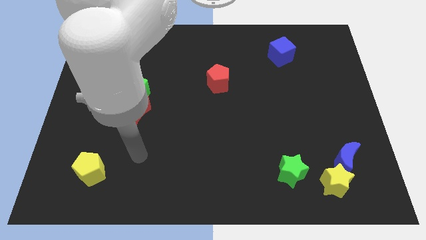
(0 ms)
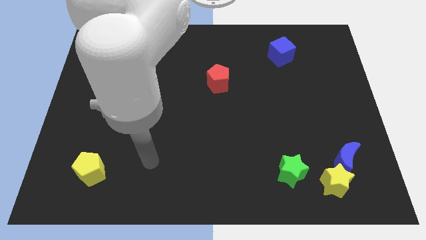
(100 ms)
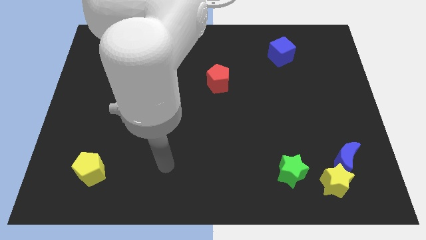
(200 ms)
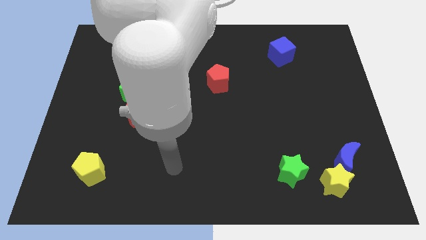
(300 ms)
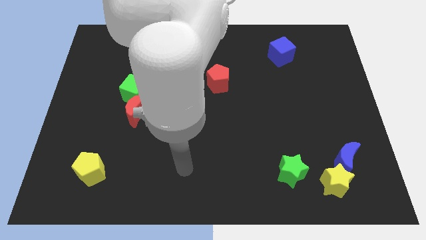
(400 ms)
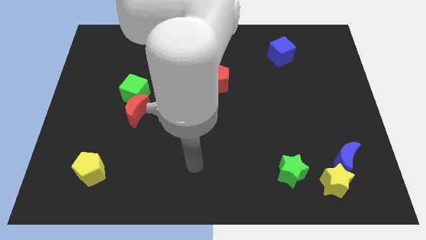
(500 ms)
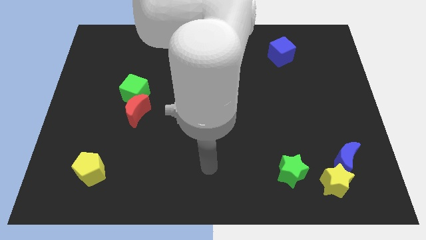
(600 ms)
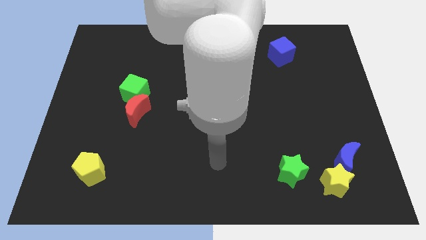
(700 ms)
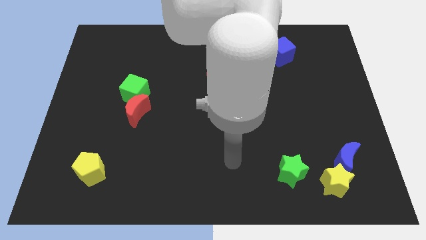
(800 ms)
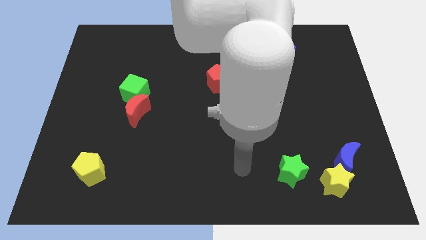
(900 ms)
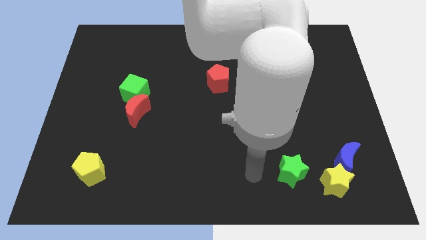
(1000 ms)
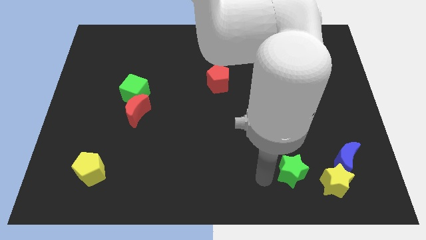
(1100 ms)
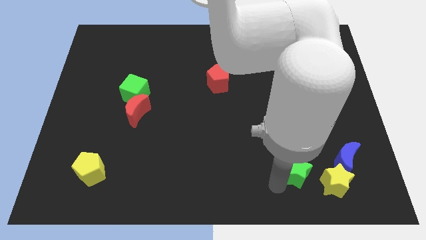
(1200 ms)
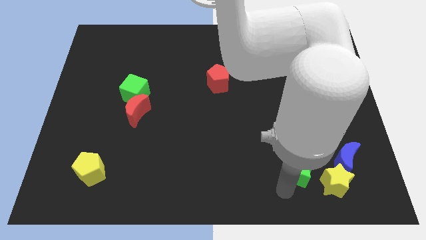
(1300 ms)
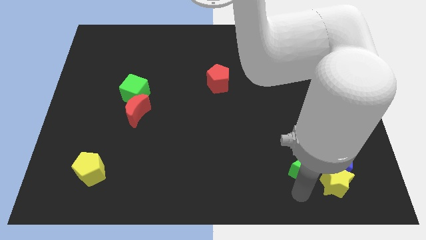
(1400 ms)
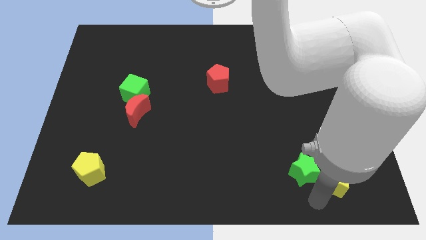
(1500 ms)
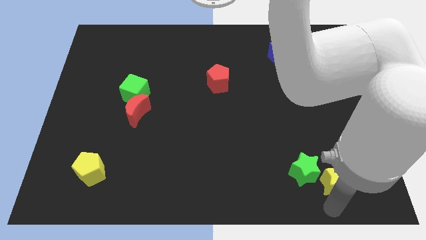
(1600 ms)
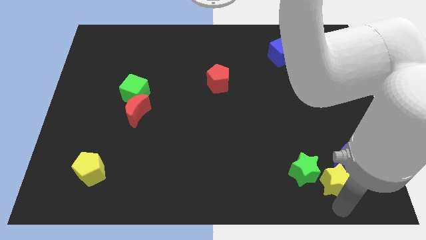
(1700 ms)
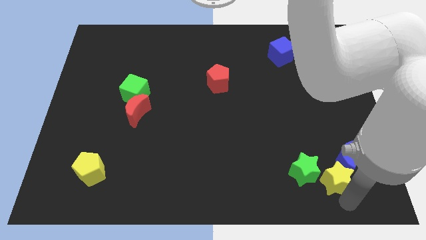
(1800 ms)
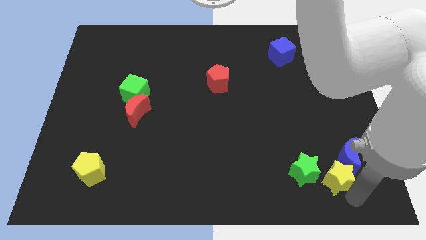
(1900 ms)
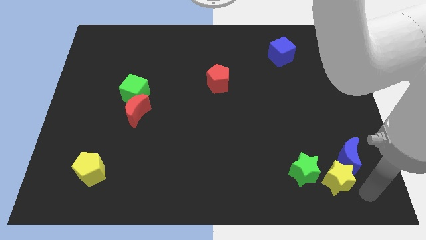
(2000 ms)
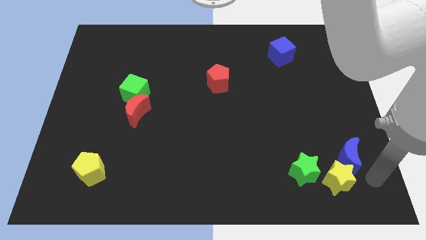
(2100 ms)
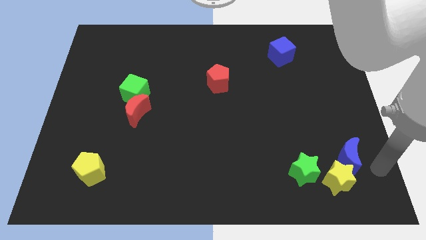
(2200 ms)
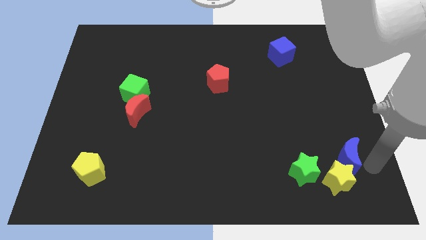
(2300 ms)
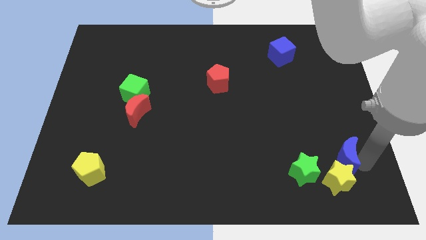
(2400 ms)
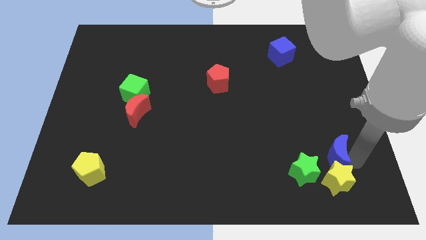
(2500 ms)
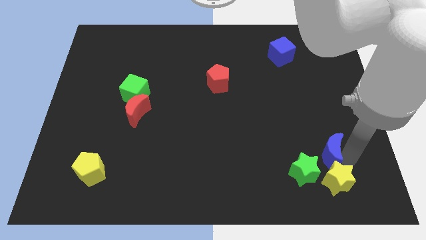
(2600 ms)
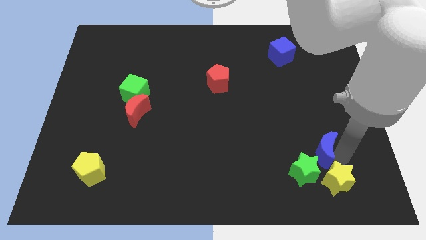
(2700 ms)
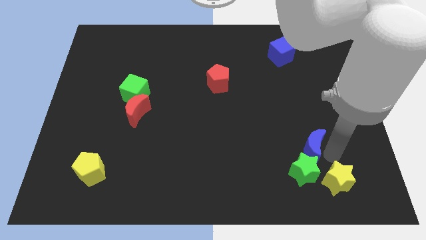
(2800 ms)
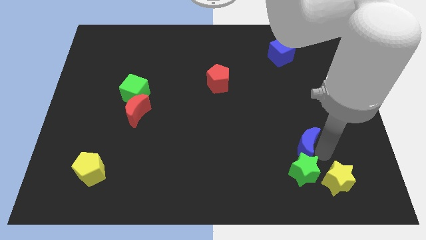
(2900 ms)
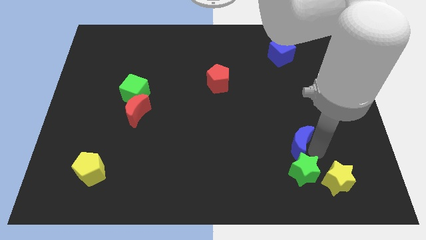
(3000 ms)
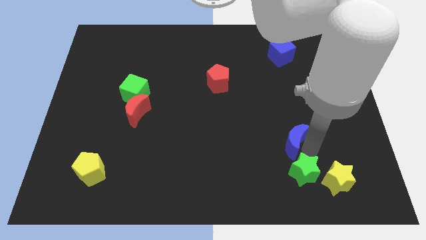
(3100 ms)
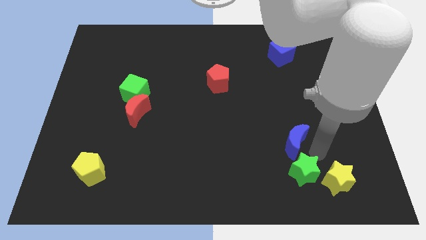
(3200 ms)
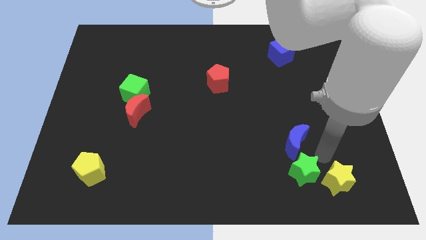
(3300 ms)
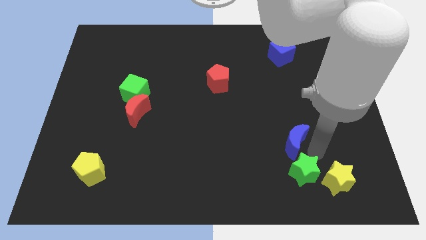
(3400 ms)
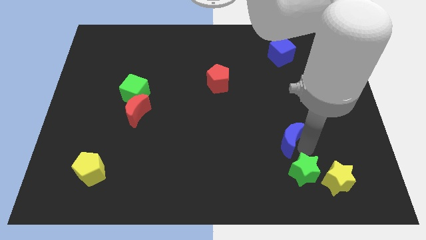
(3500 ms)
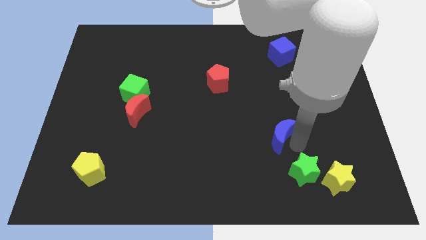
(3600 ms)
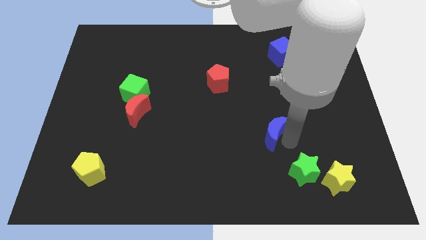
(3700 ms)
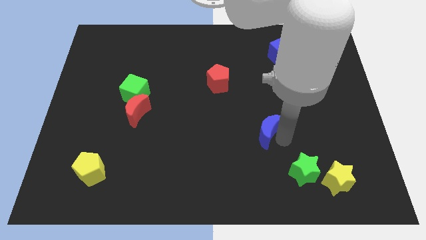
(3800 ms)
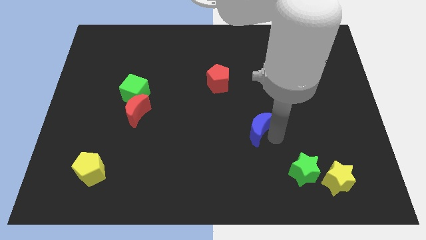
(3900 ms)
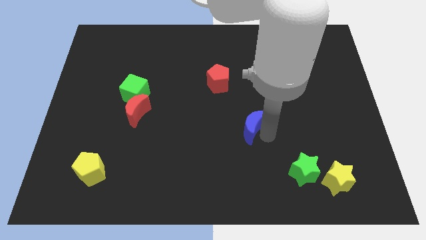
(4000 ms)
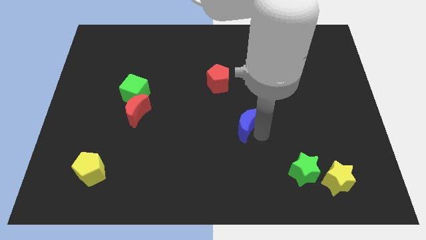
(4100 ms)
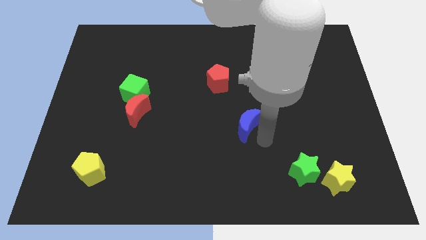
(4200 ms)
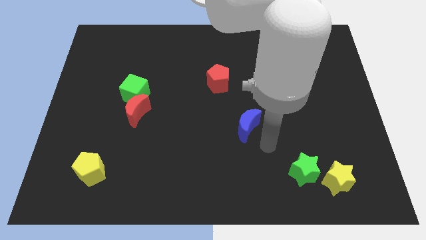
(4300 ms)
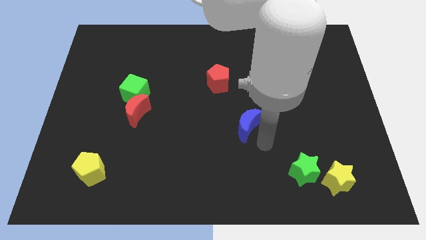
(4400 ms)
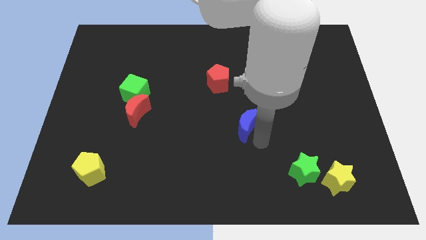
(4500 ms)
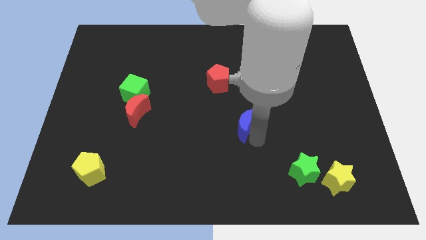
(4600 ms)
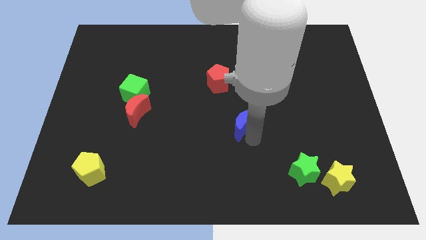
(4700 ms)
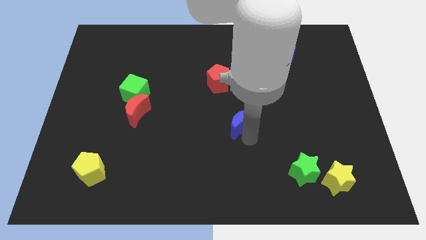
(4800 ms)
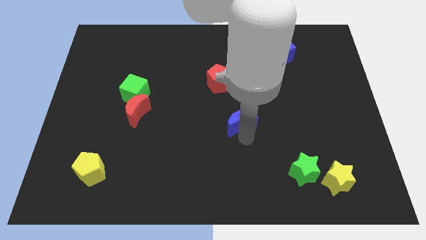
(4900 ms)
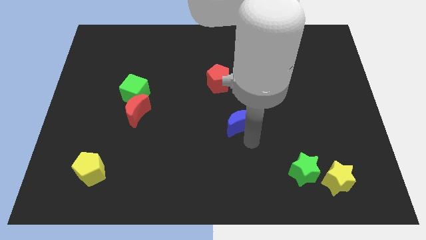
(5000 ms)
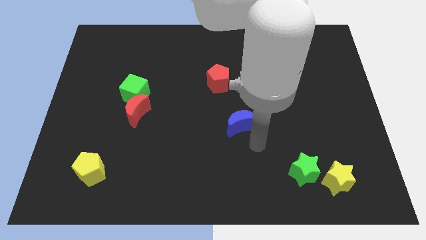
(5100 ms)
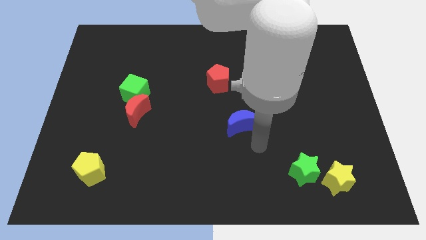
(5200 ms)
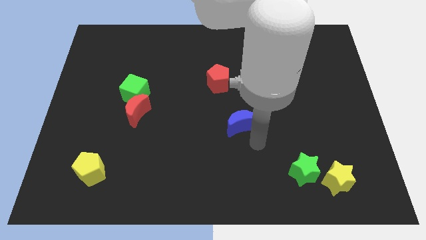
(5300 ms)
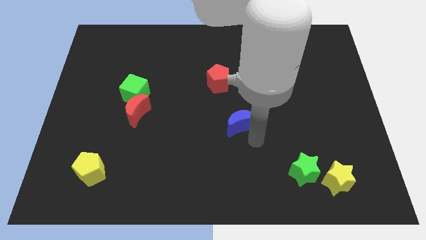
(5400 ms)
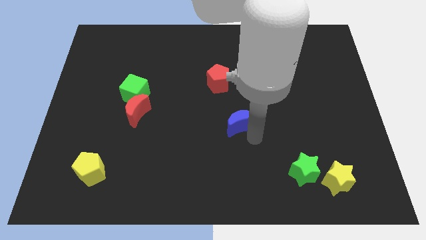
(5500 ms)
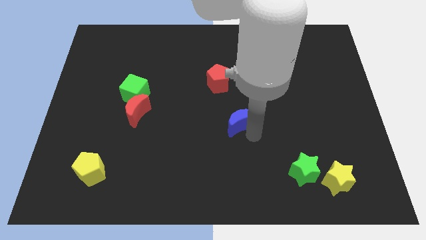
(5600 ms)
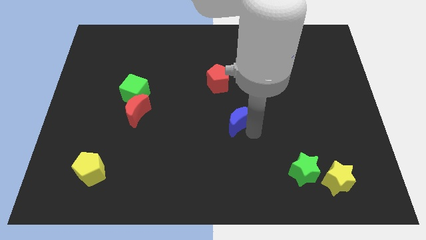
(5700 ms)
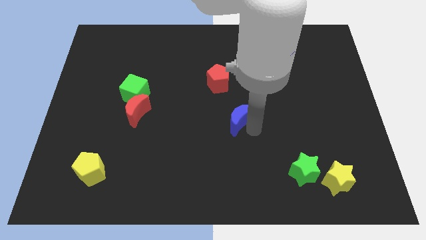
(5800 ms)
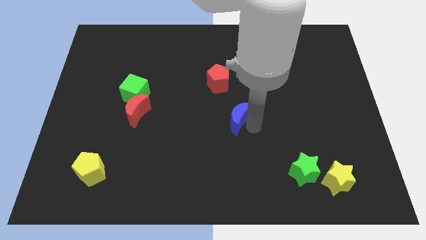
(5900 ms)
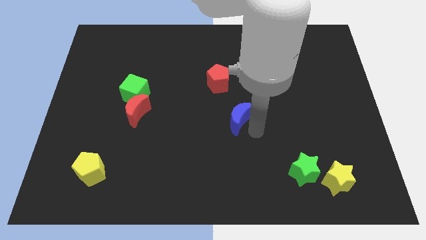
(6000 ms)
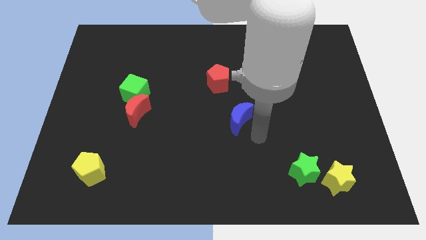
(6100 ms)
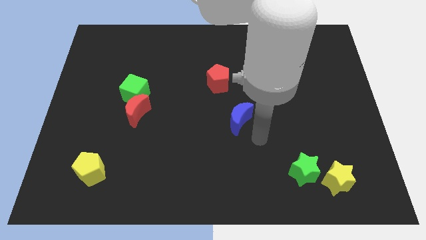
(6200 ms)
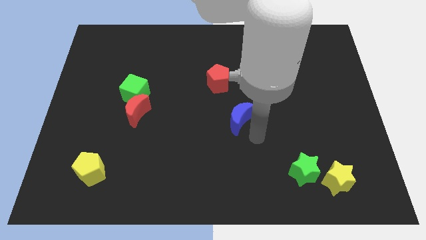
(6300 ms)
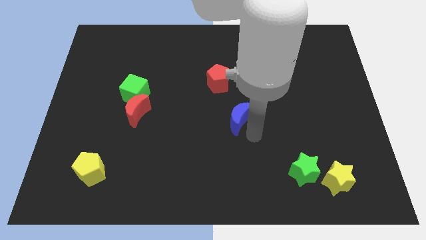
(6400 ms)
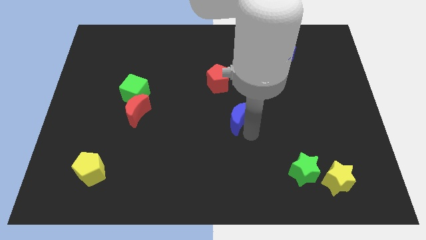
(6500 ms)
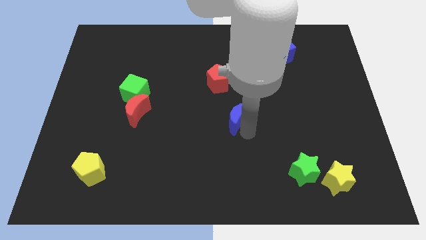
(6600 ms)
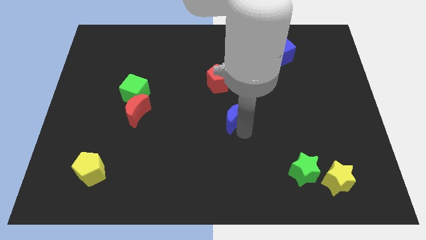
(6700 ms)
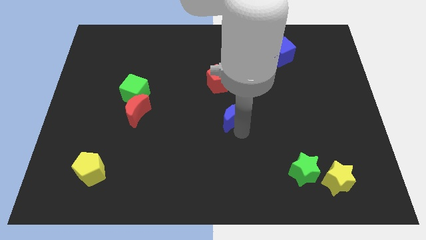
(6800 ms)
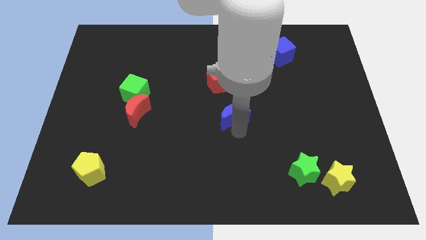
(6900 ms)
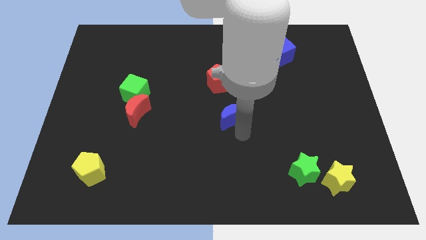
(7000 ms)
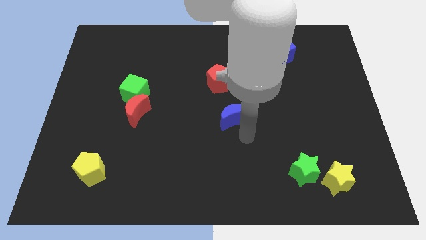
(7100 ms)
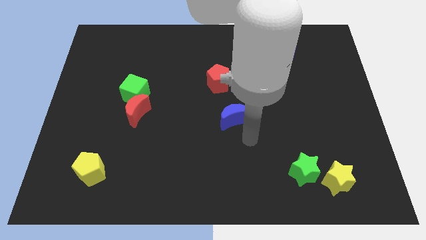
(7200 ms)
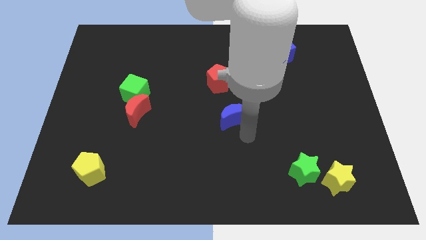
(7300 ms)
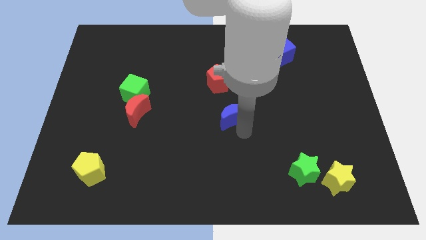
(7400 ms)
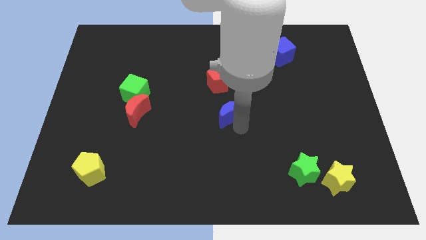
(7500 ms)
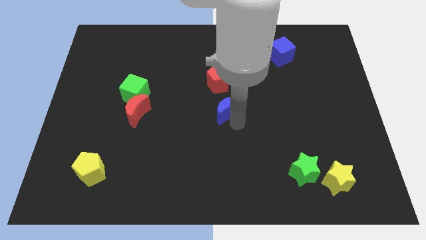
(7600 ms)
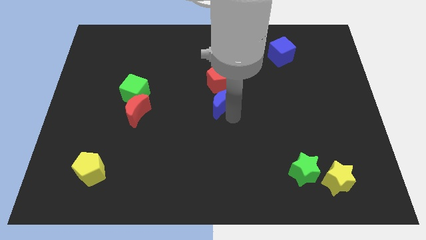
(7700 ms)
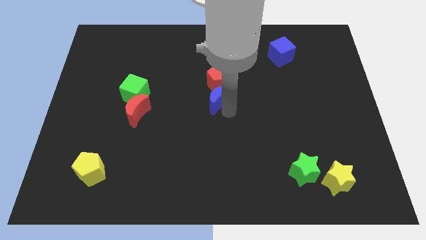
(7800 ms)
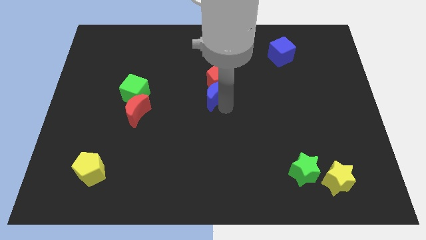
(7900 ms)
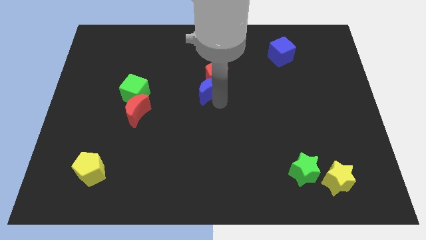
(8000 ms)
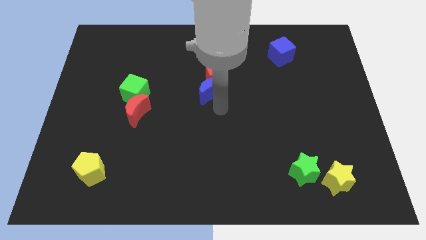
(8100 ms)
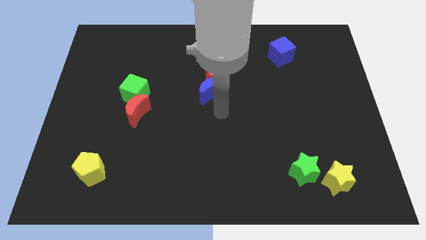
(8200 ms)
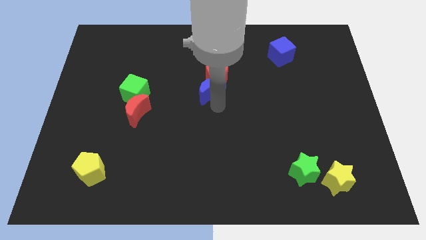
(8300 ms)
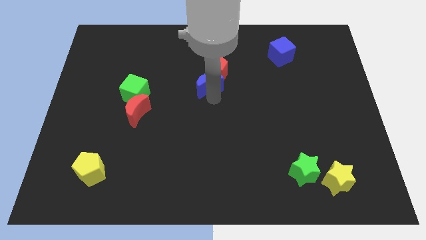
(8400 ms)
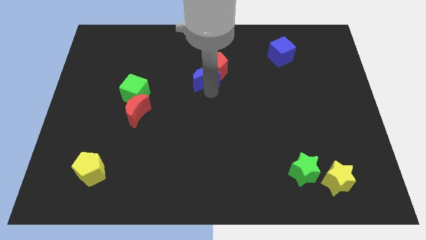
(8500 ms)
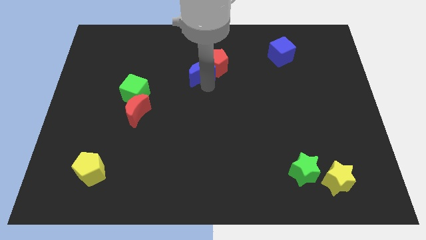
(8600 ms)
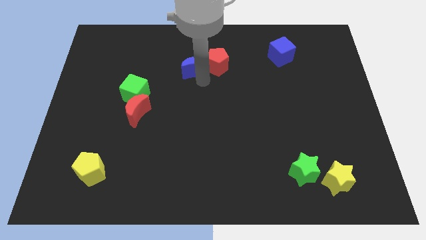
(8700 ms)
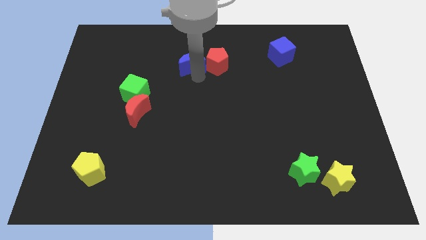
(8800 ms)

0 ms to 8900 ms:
put the blue moon to the top left side of the red pentagon
